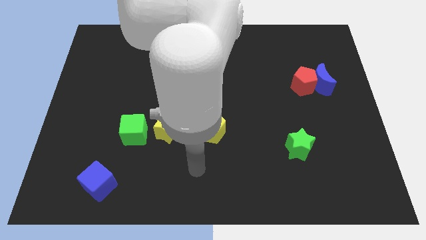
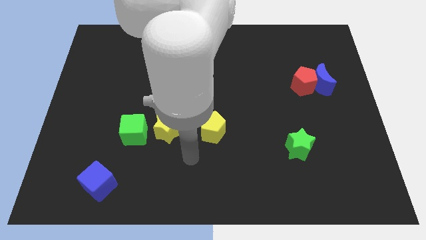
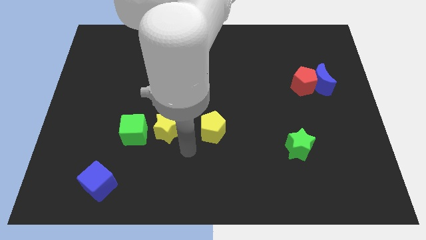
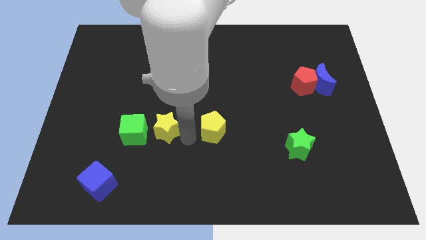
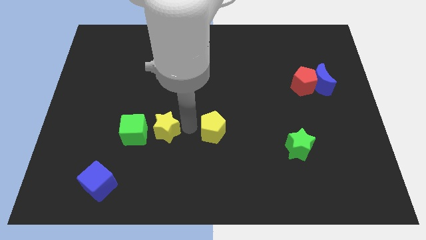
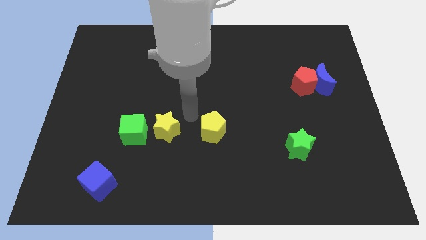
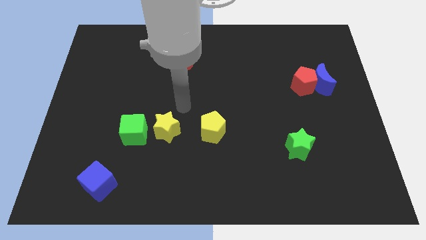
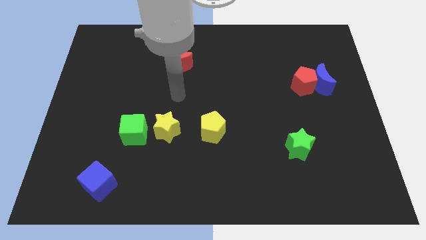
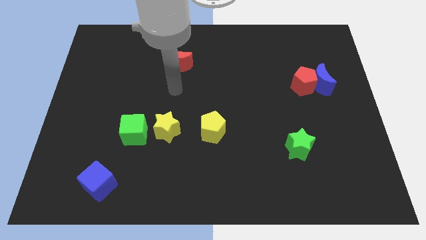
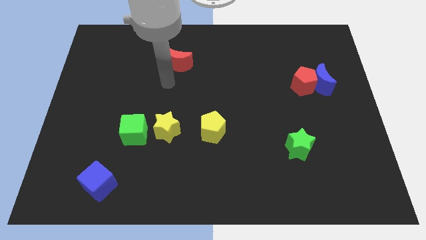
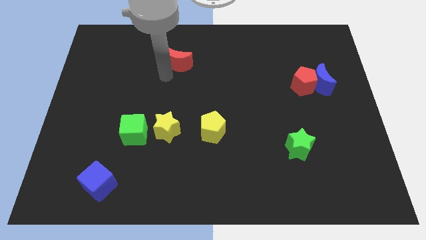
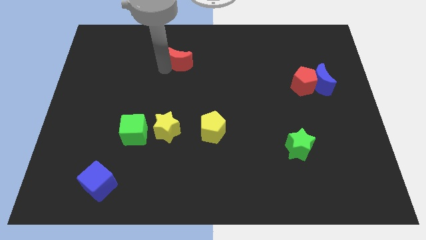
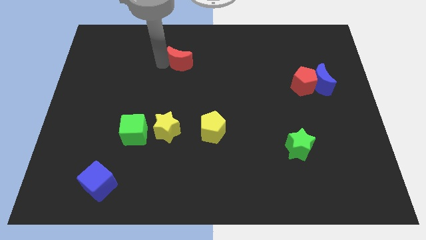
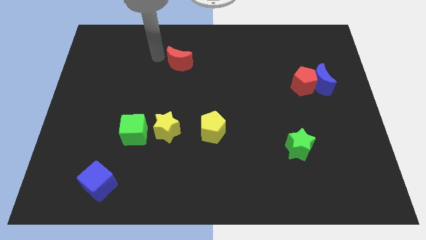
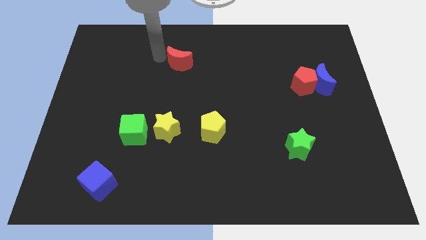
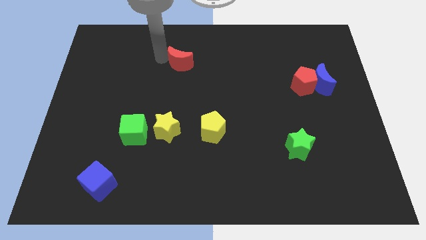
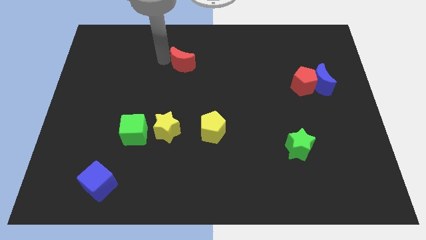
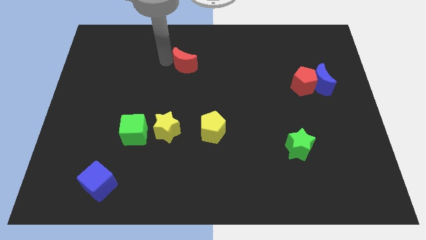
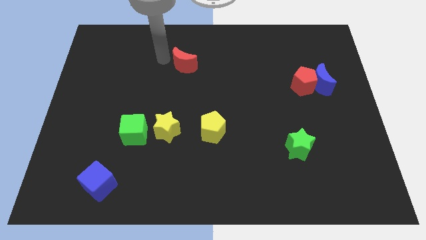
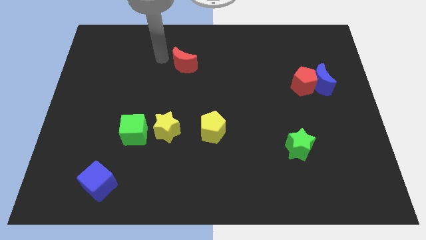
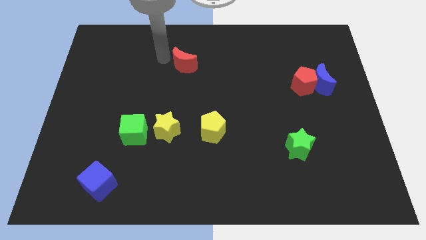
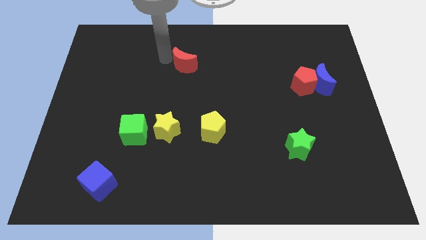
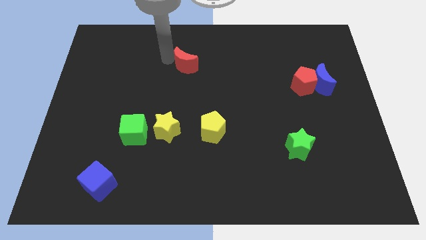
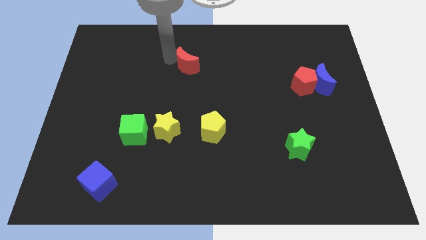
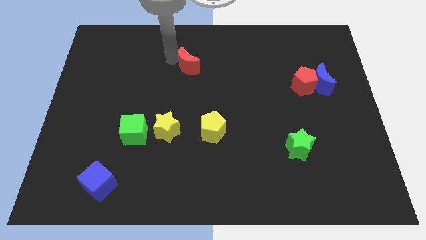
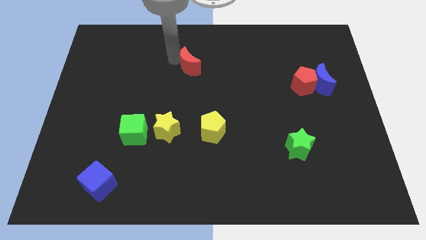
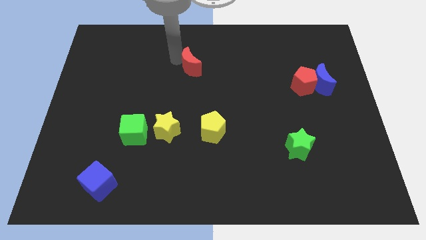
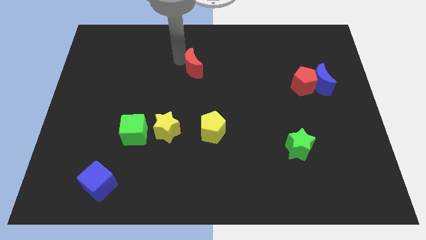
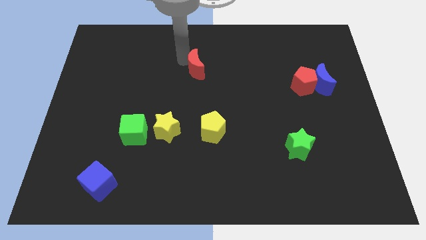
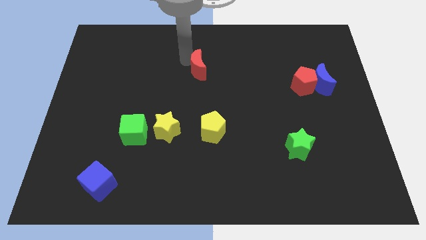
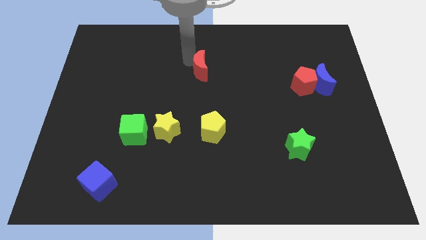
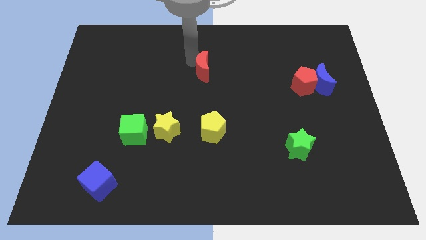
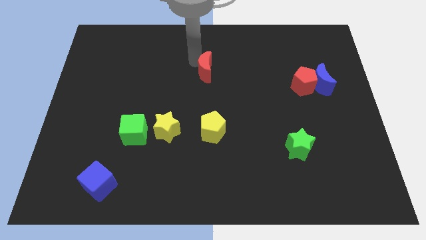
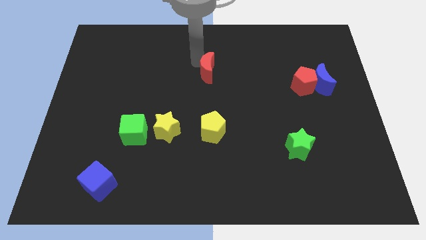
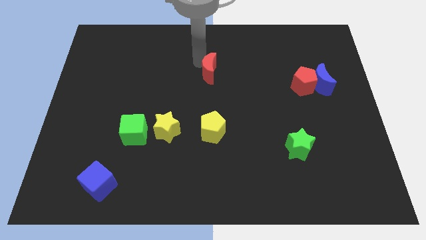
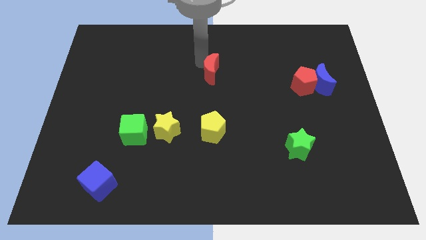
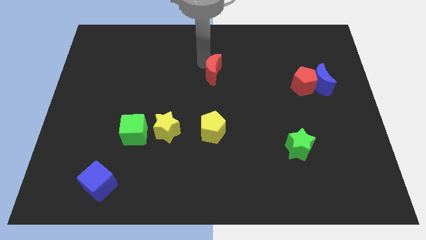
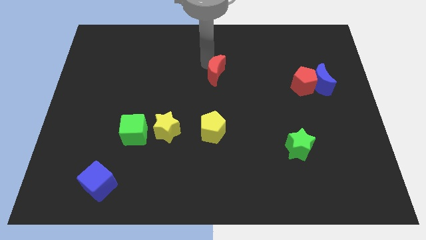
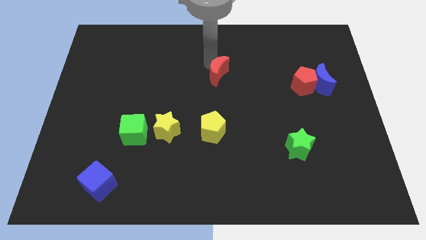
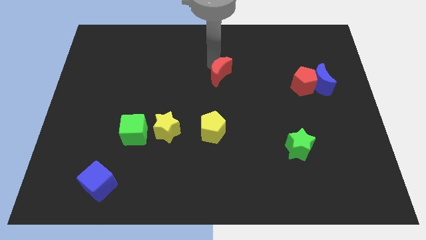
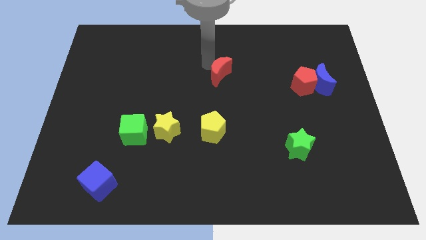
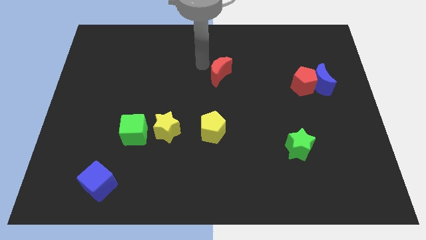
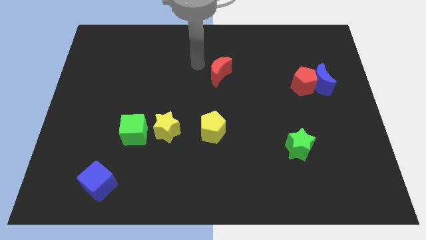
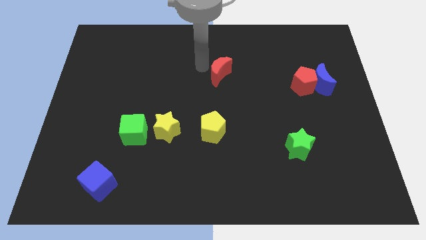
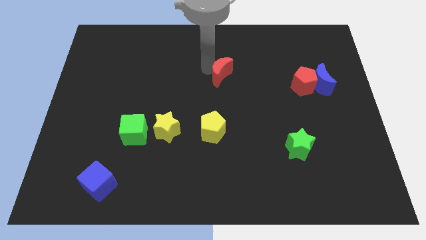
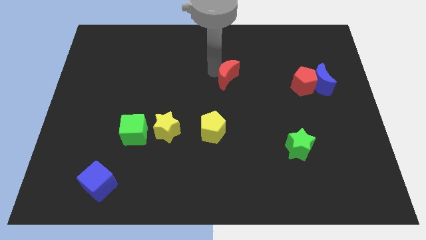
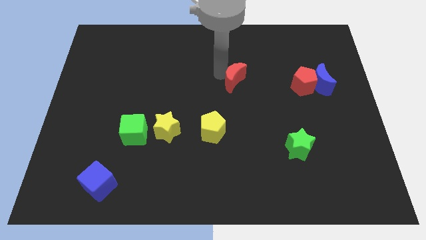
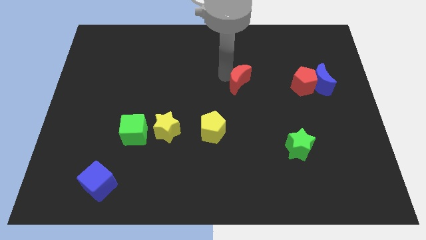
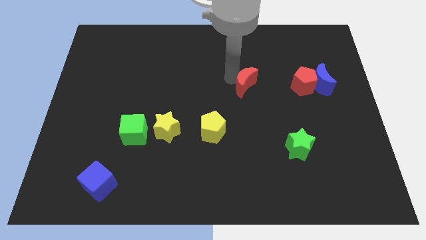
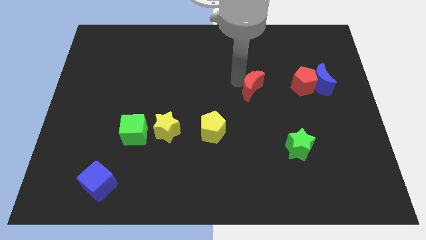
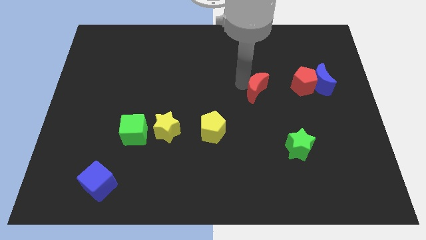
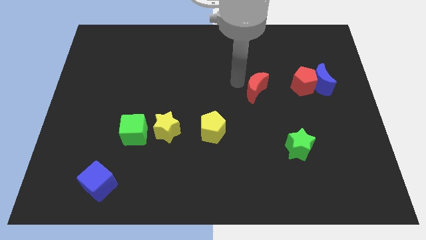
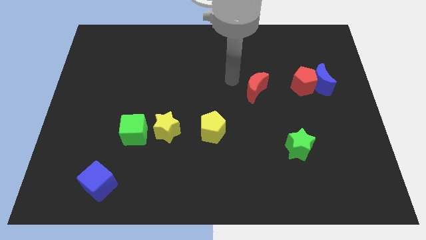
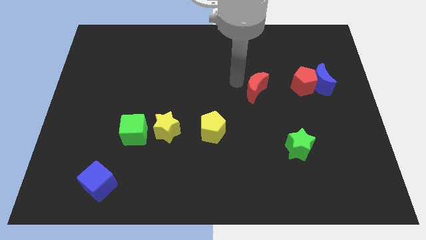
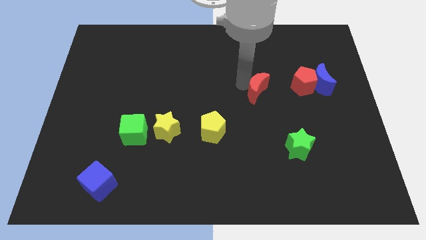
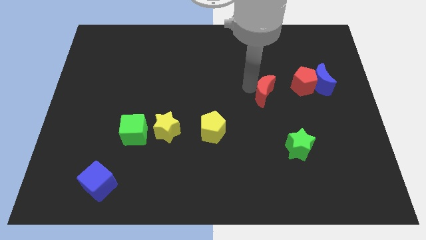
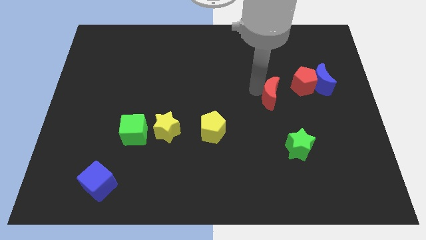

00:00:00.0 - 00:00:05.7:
slide the red moon diagonally down and to the left of the red pentagon

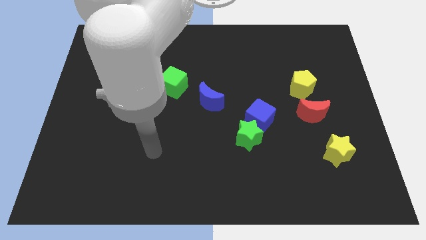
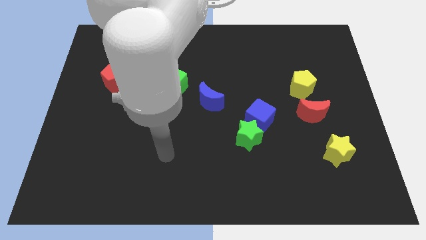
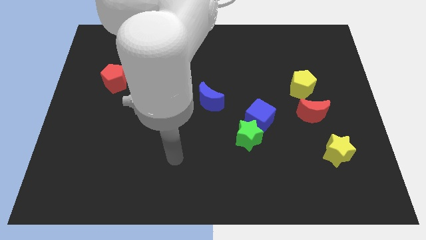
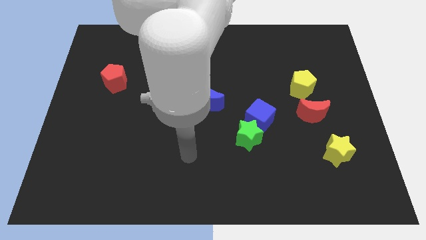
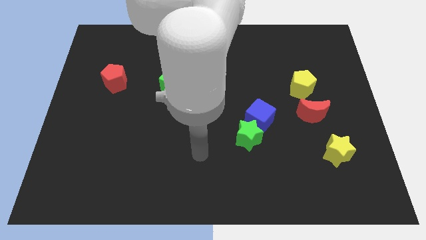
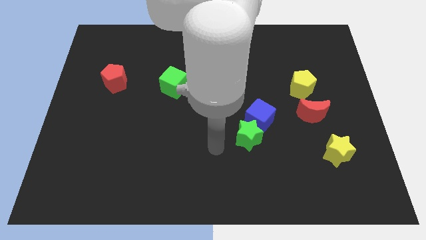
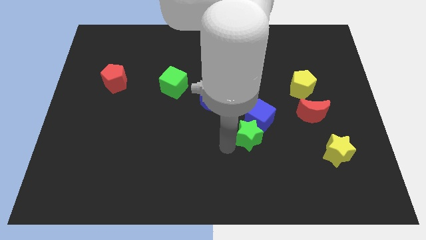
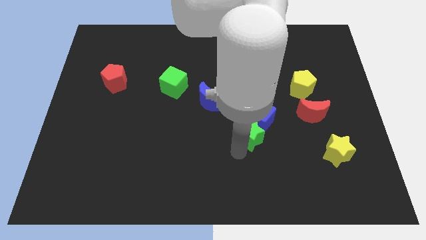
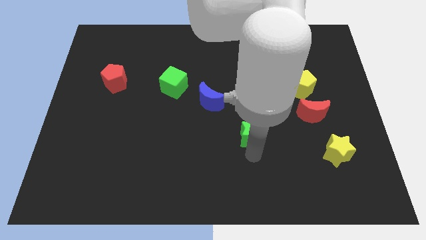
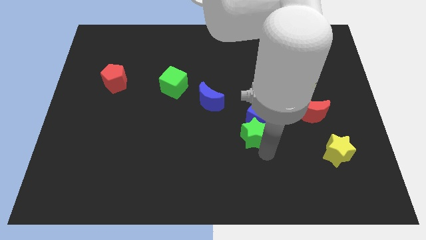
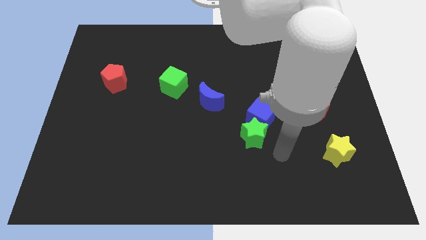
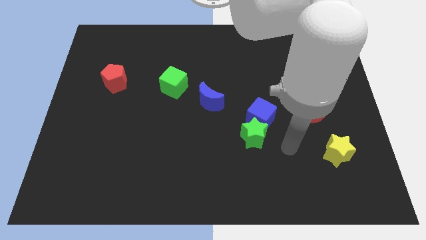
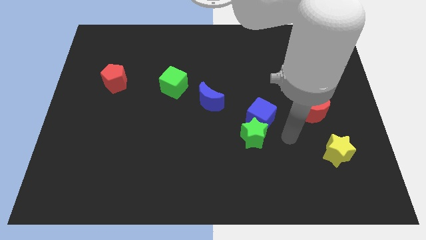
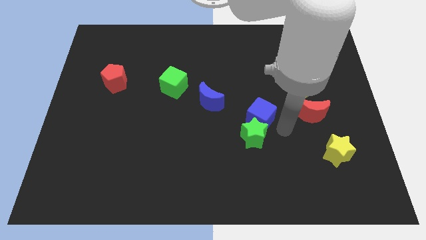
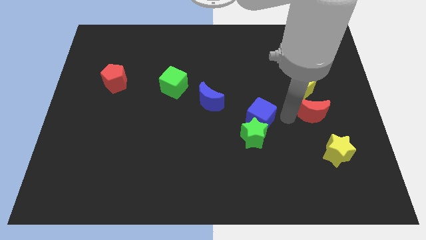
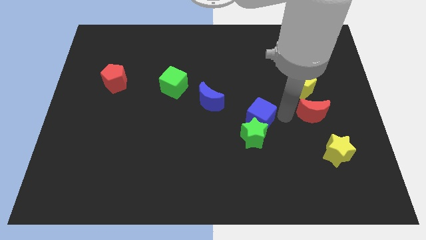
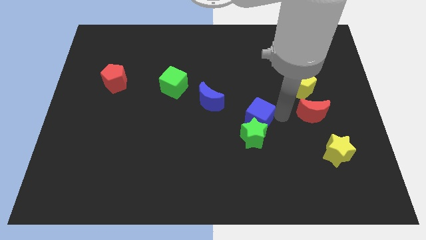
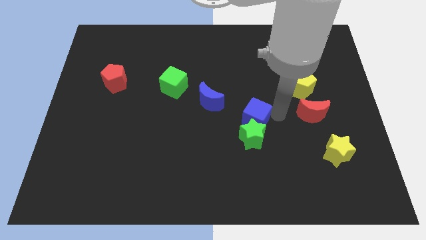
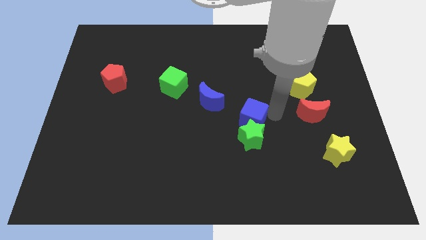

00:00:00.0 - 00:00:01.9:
slide the blue cube to the bottom right of the blue moon
